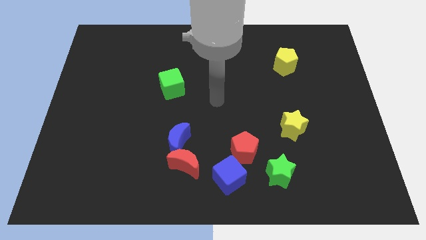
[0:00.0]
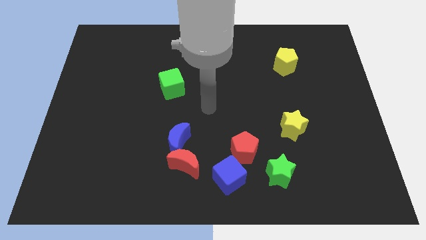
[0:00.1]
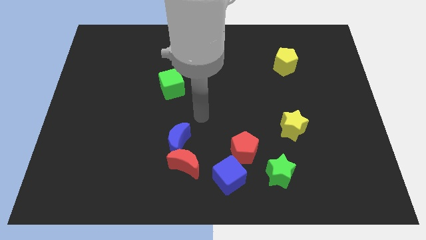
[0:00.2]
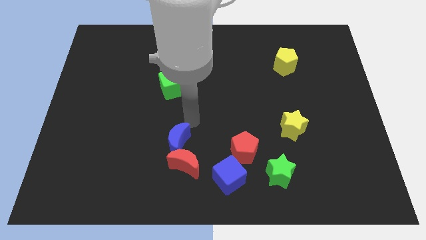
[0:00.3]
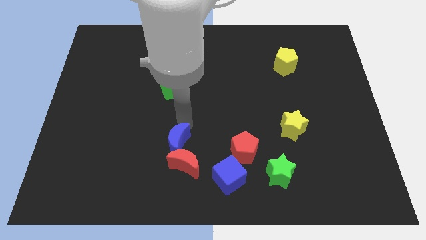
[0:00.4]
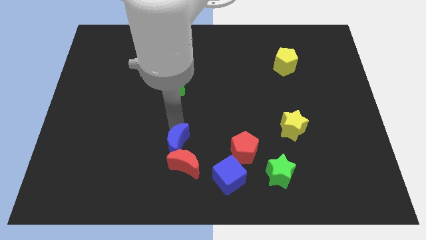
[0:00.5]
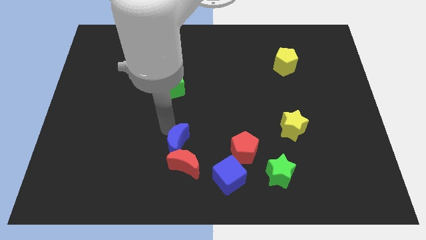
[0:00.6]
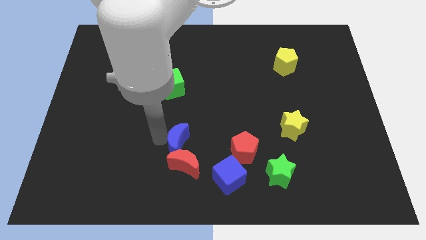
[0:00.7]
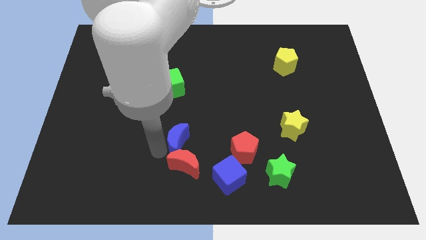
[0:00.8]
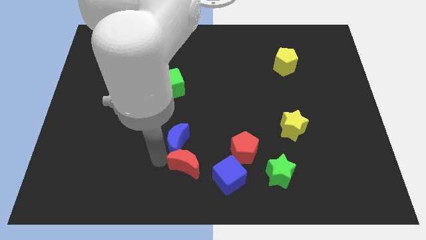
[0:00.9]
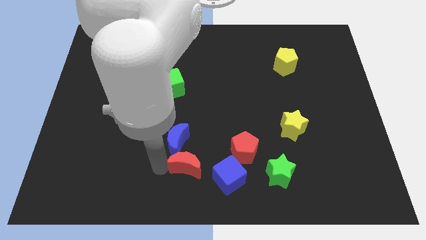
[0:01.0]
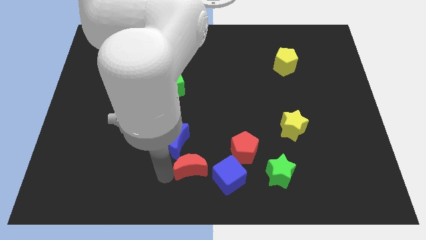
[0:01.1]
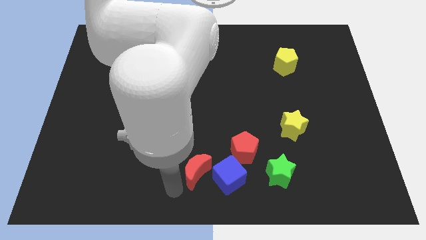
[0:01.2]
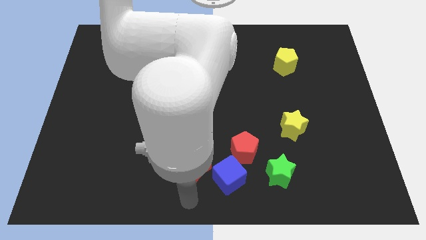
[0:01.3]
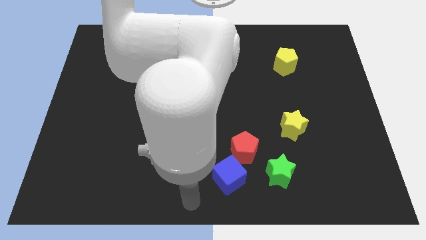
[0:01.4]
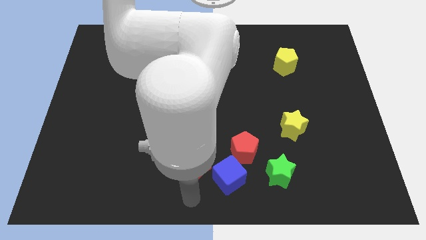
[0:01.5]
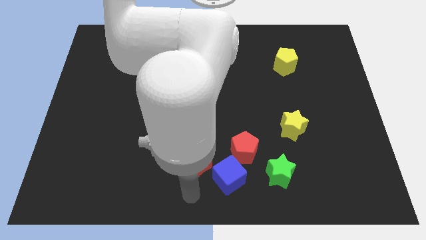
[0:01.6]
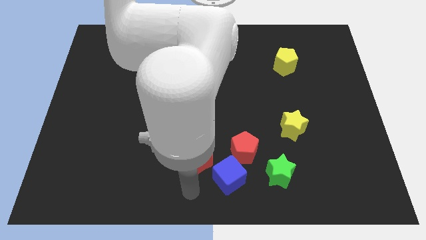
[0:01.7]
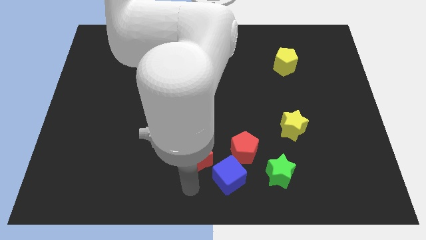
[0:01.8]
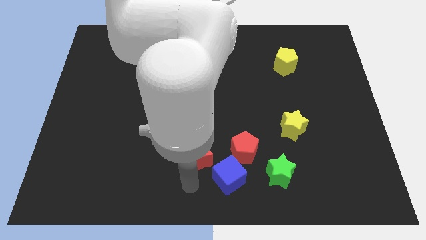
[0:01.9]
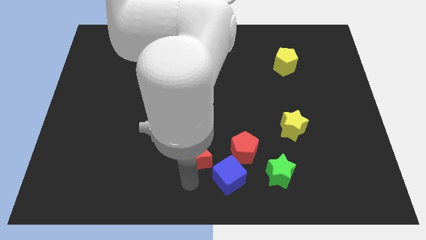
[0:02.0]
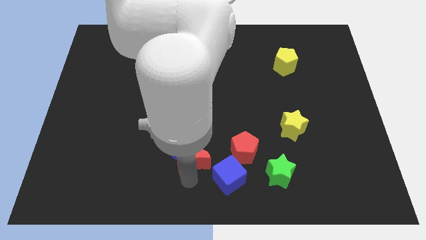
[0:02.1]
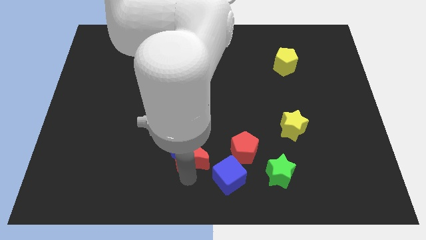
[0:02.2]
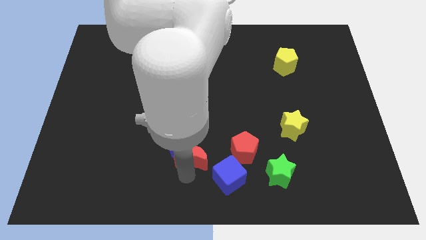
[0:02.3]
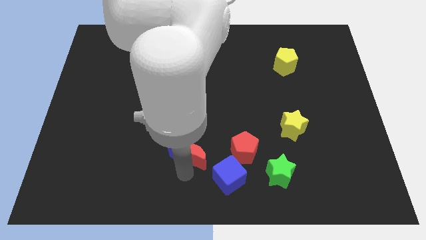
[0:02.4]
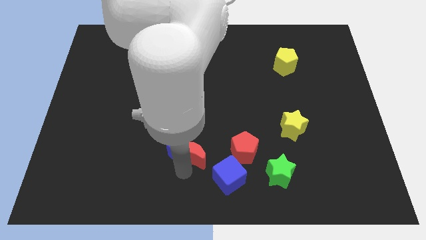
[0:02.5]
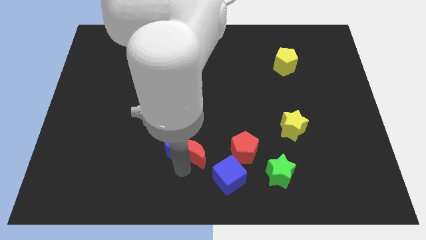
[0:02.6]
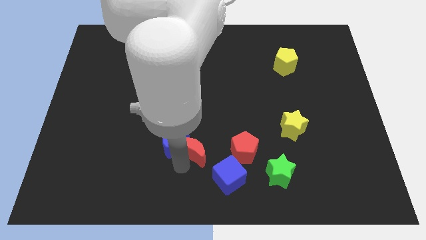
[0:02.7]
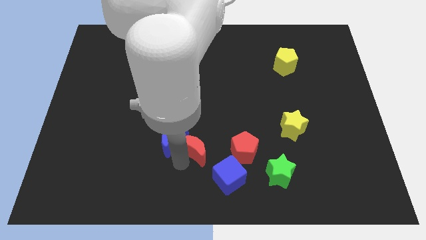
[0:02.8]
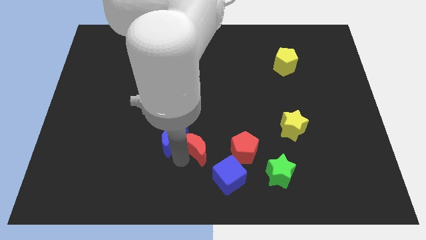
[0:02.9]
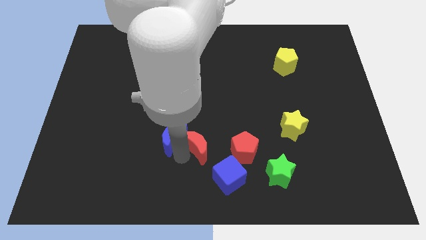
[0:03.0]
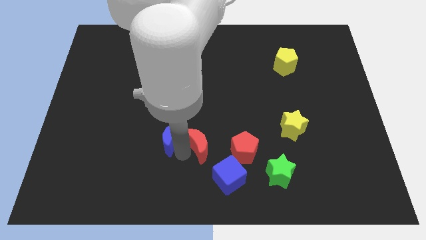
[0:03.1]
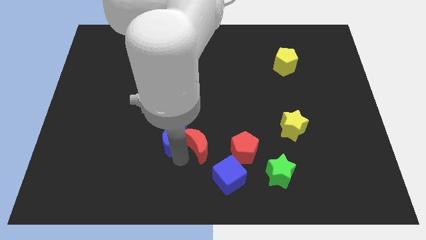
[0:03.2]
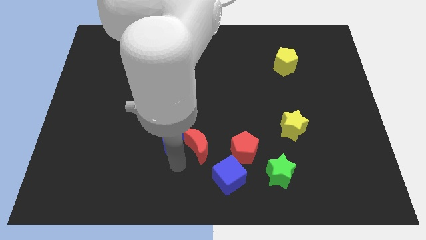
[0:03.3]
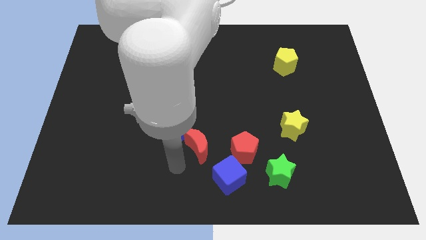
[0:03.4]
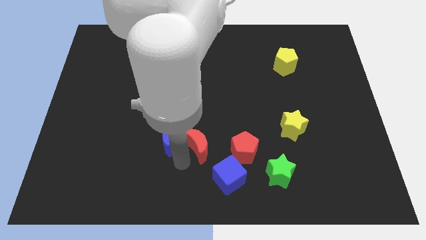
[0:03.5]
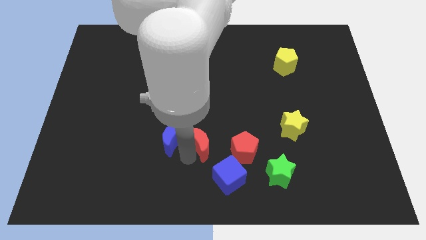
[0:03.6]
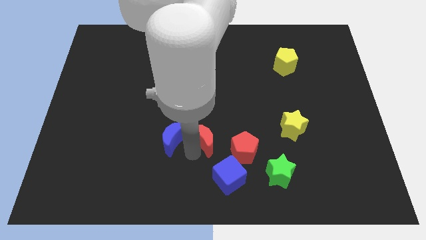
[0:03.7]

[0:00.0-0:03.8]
slightly slide the red moon upwards and to the right diagonally

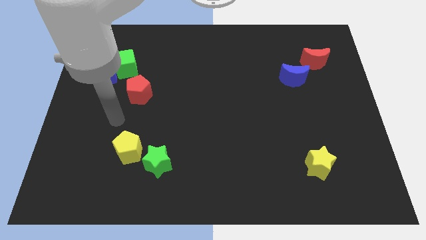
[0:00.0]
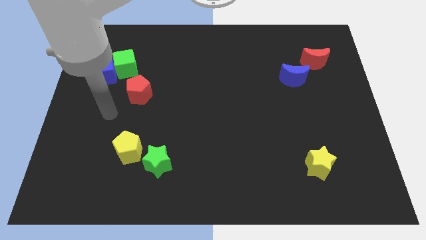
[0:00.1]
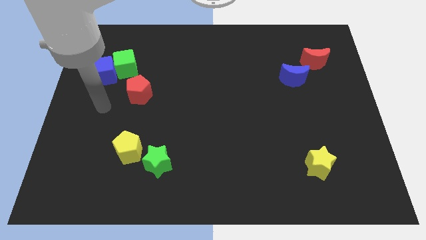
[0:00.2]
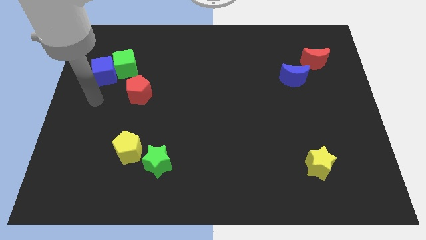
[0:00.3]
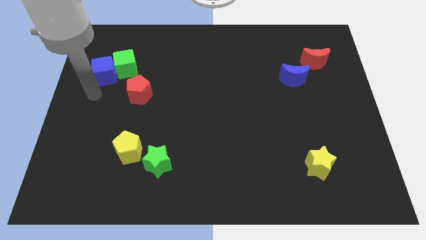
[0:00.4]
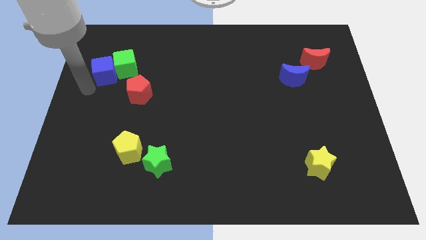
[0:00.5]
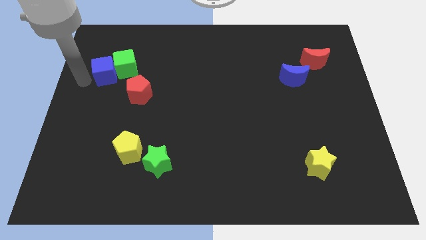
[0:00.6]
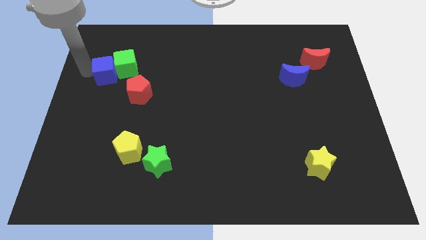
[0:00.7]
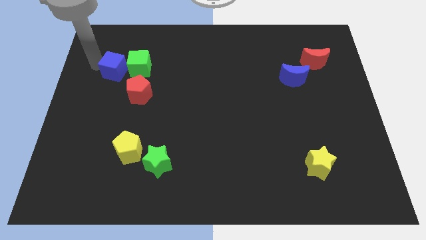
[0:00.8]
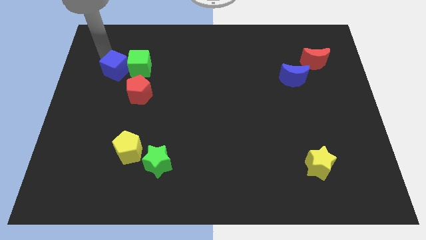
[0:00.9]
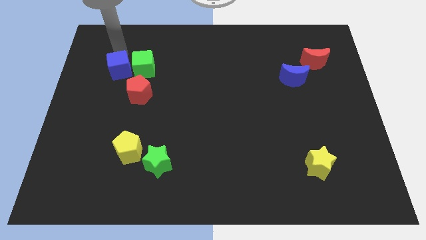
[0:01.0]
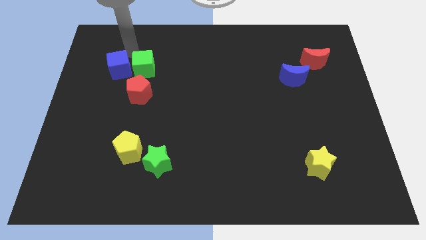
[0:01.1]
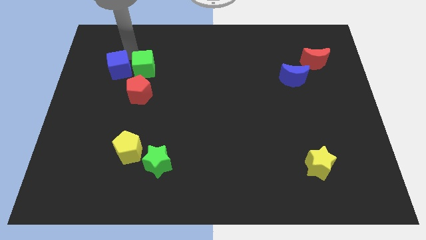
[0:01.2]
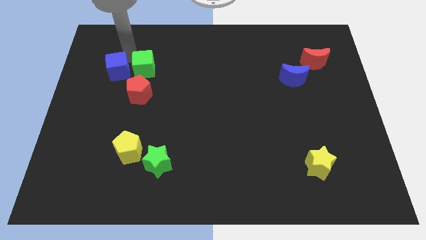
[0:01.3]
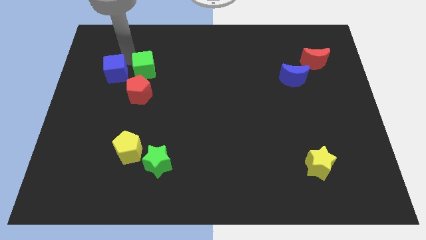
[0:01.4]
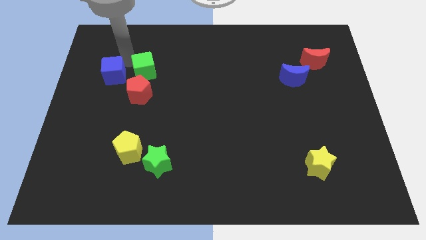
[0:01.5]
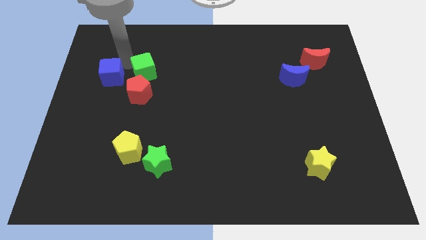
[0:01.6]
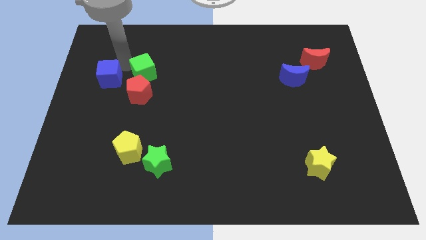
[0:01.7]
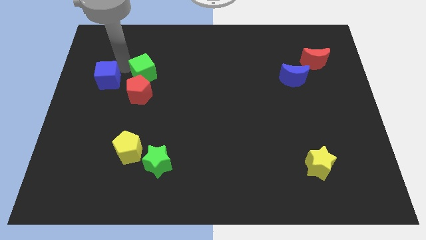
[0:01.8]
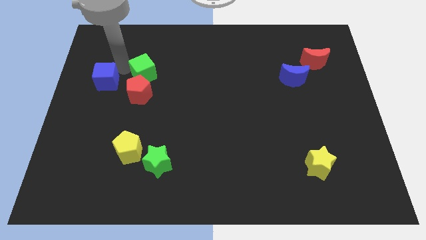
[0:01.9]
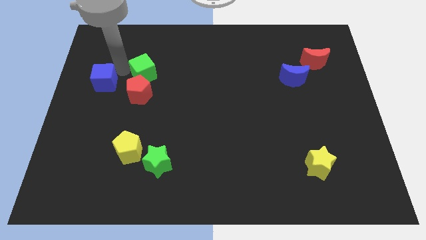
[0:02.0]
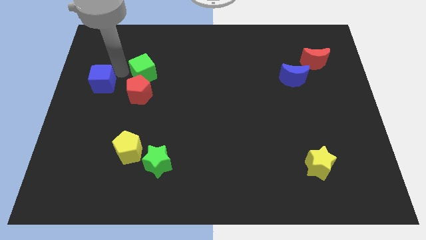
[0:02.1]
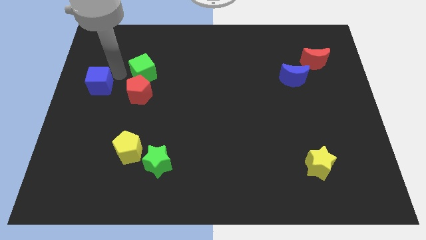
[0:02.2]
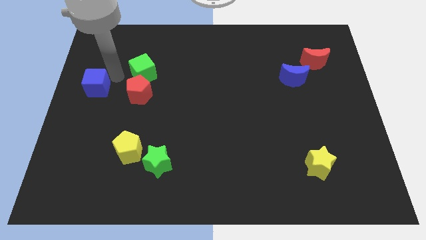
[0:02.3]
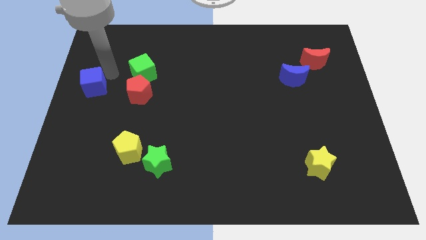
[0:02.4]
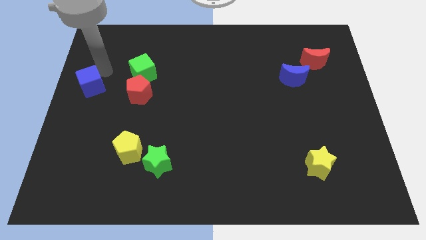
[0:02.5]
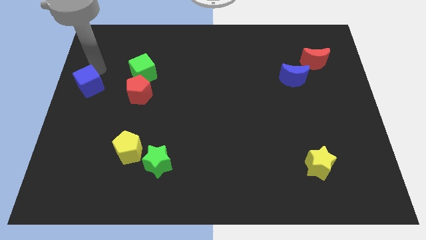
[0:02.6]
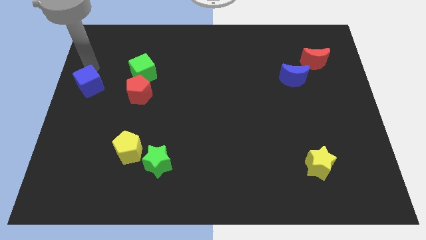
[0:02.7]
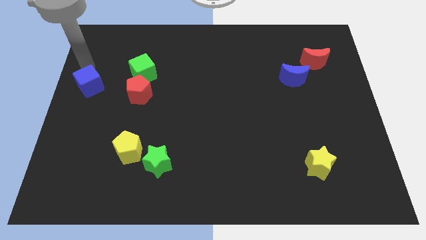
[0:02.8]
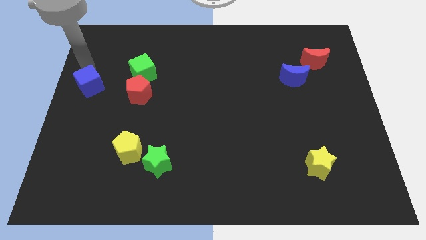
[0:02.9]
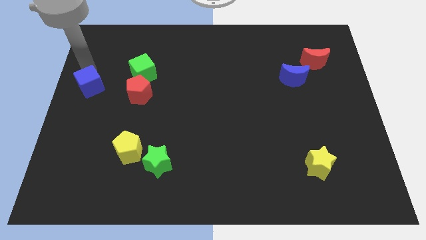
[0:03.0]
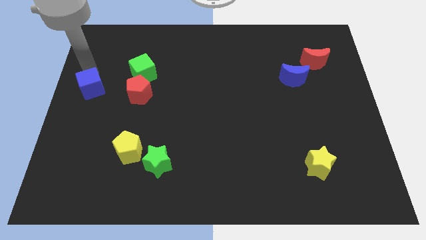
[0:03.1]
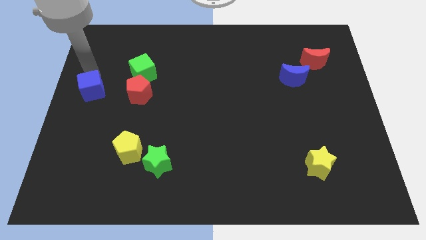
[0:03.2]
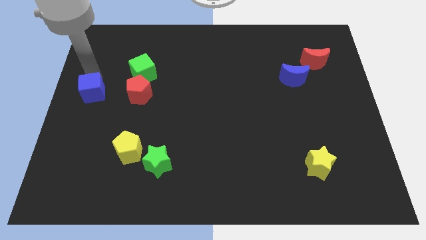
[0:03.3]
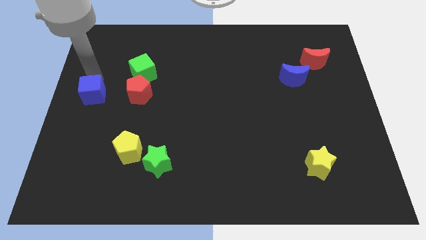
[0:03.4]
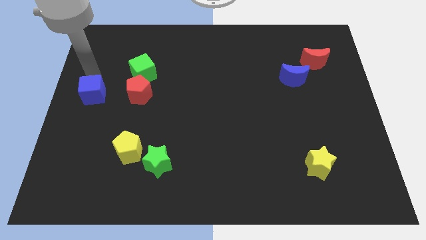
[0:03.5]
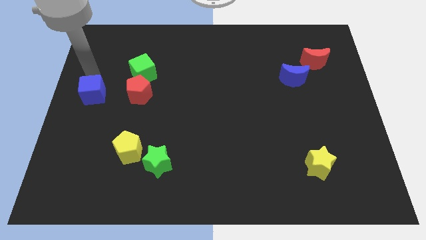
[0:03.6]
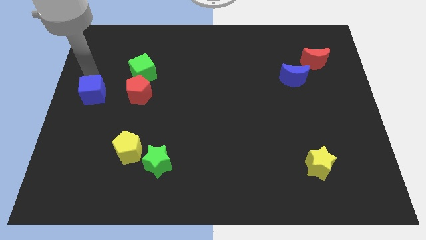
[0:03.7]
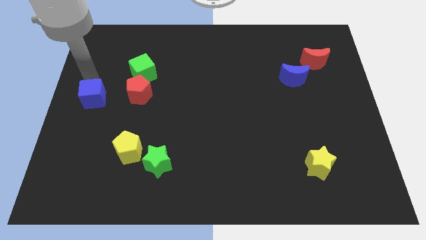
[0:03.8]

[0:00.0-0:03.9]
push the blue cube a bit down

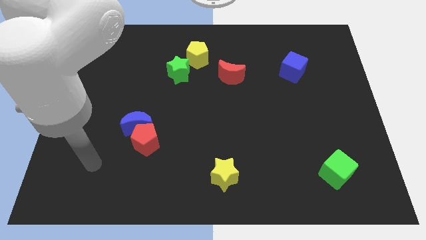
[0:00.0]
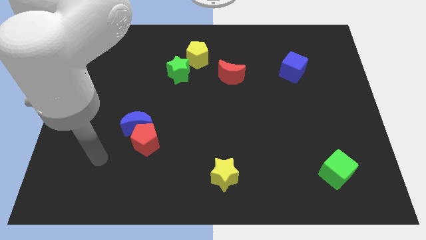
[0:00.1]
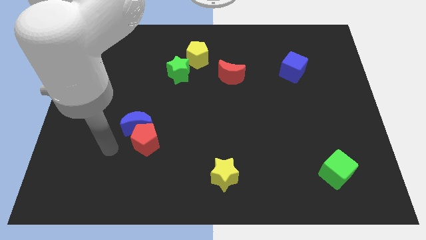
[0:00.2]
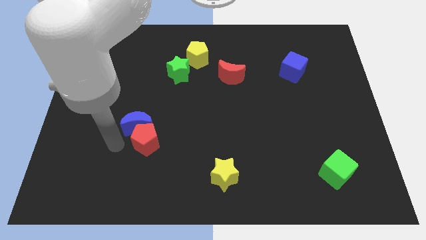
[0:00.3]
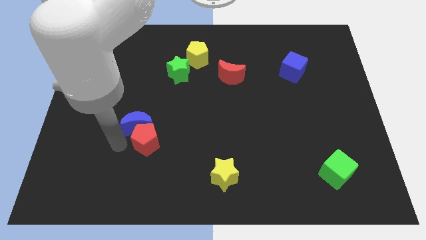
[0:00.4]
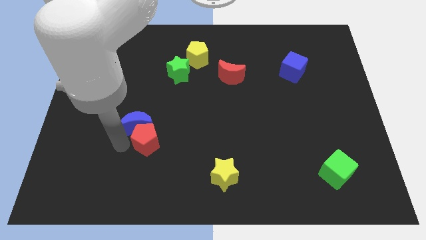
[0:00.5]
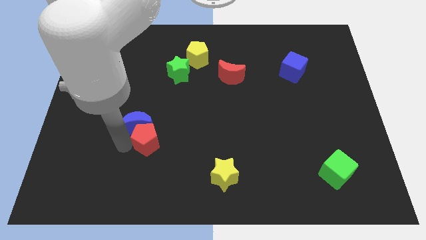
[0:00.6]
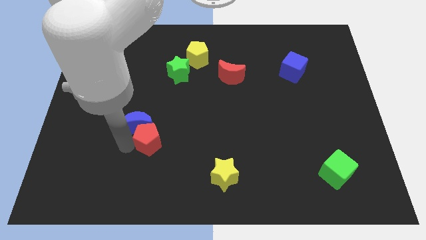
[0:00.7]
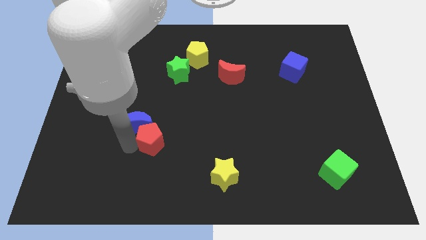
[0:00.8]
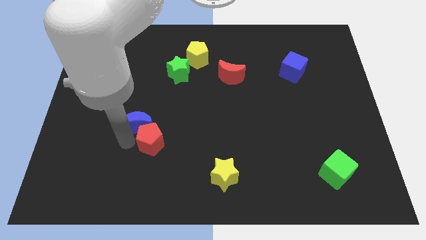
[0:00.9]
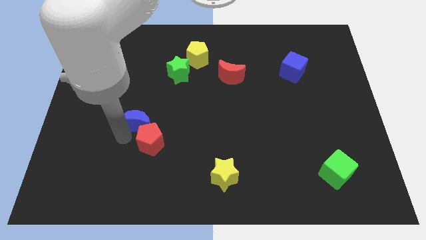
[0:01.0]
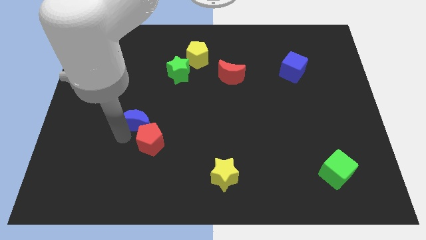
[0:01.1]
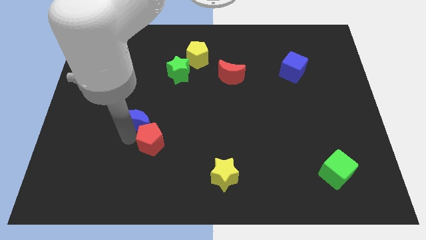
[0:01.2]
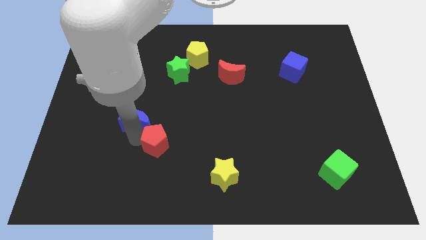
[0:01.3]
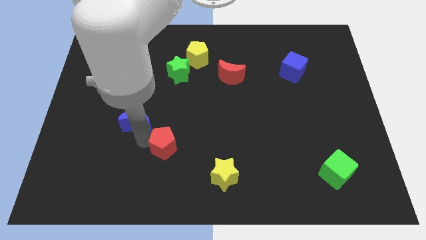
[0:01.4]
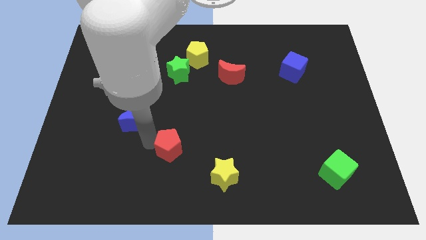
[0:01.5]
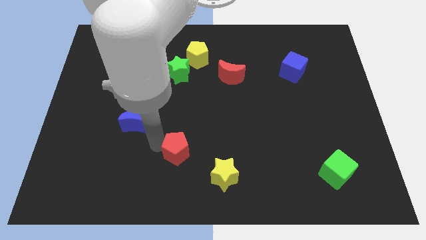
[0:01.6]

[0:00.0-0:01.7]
slide the red pentagon a little right
